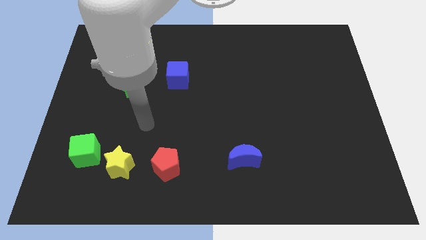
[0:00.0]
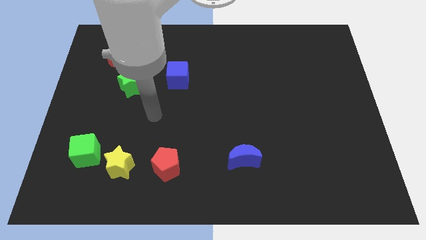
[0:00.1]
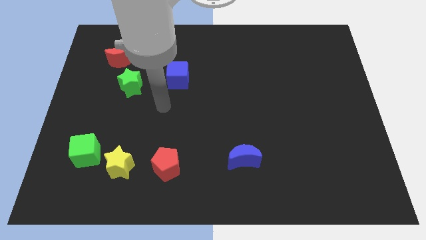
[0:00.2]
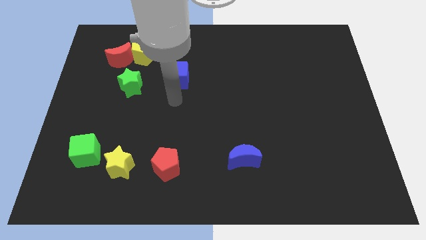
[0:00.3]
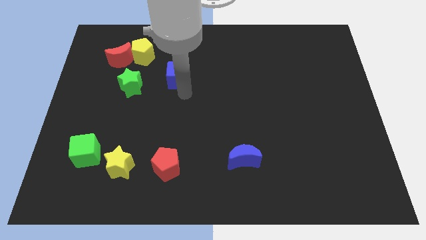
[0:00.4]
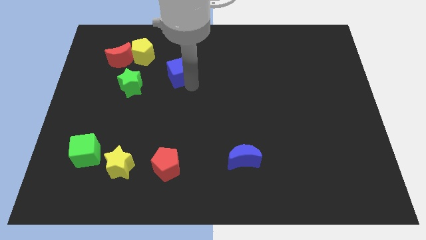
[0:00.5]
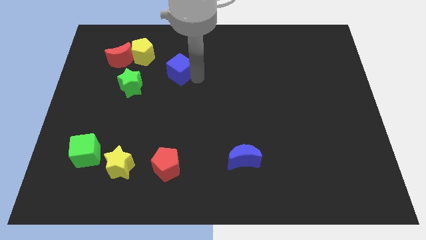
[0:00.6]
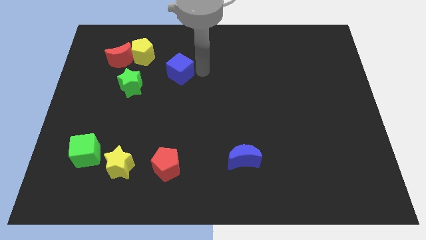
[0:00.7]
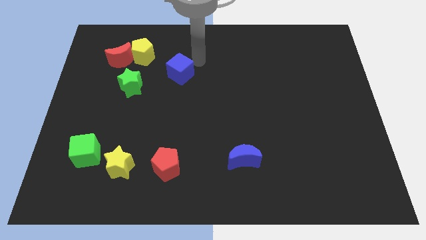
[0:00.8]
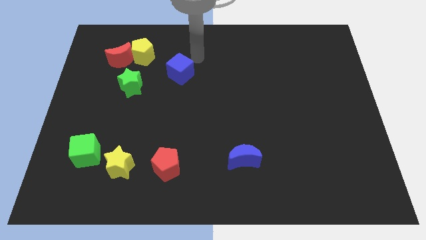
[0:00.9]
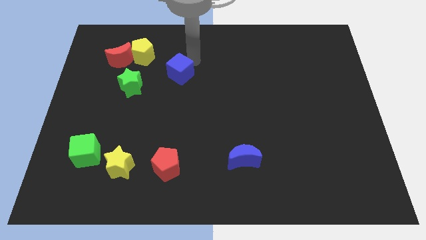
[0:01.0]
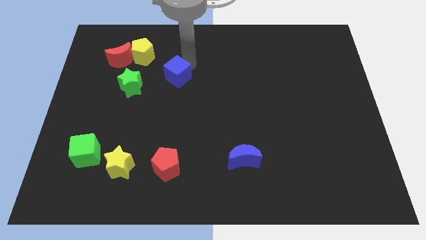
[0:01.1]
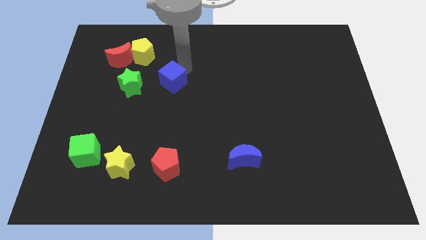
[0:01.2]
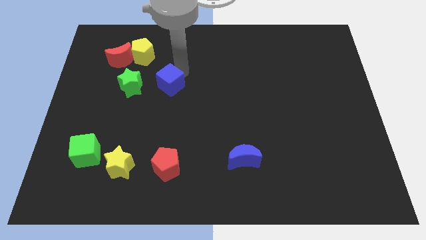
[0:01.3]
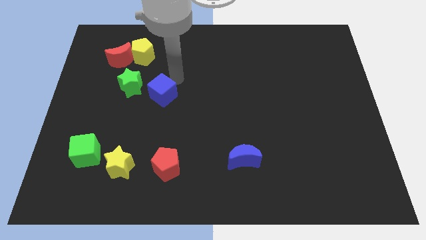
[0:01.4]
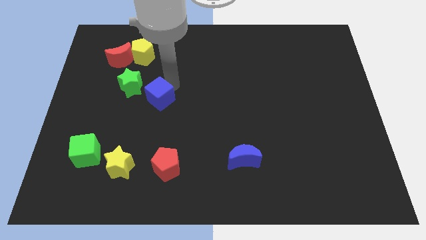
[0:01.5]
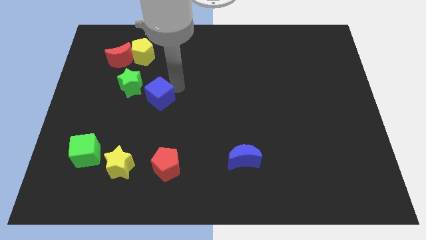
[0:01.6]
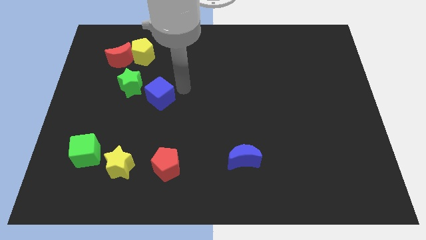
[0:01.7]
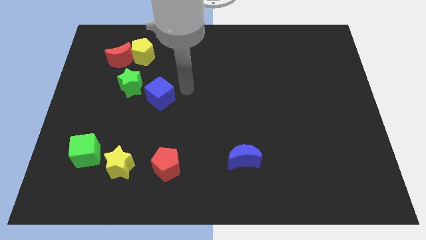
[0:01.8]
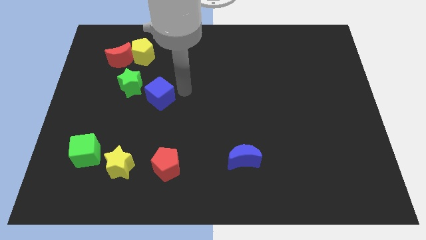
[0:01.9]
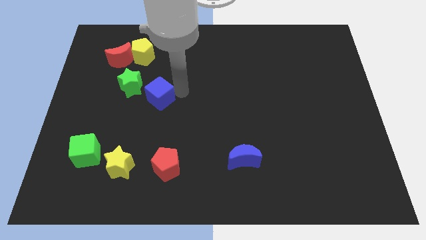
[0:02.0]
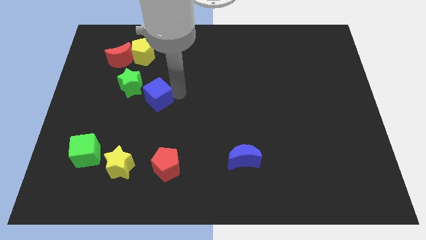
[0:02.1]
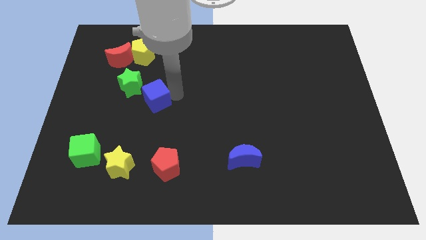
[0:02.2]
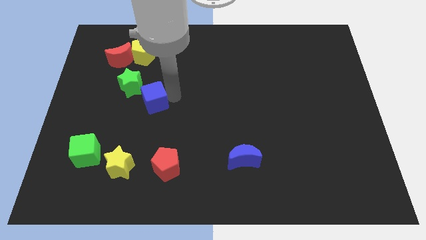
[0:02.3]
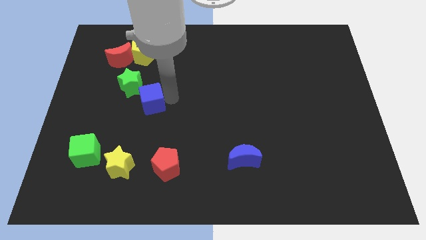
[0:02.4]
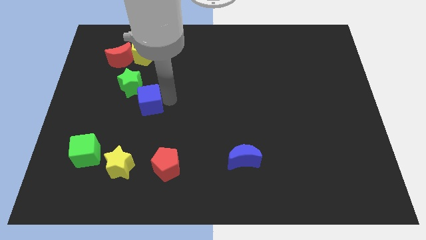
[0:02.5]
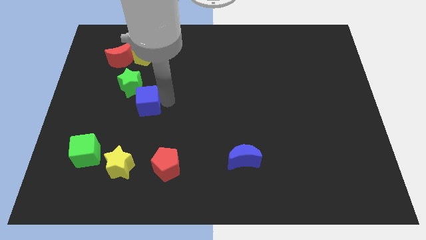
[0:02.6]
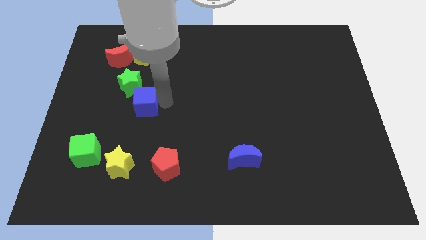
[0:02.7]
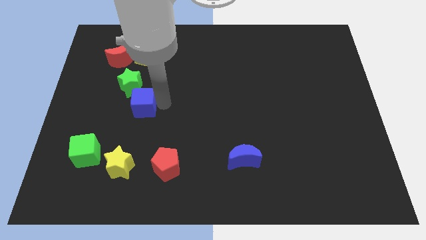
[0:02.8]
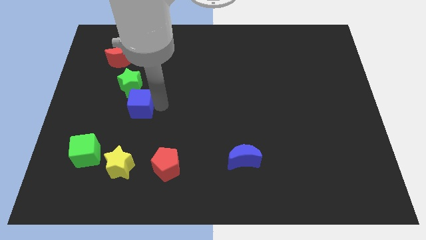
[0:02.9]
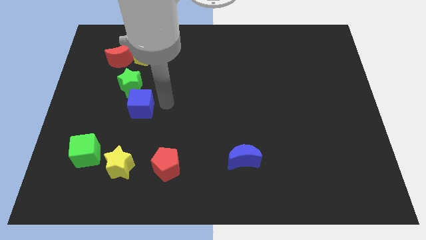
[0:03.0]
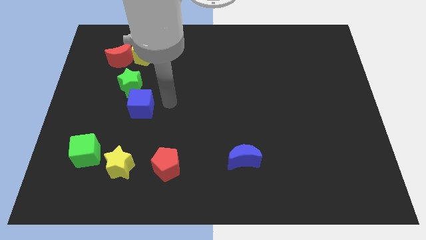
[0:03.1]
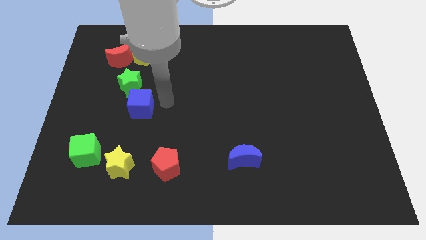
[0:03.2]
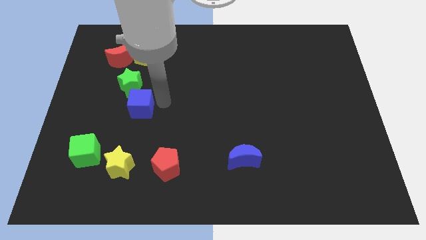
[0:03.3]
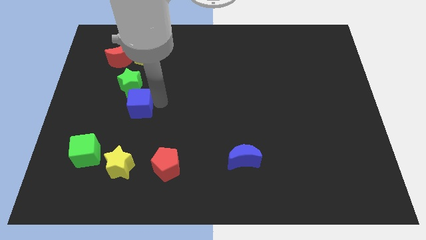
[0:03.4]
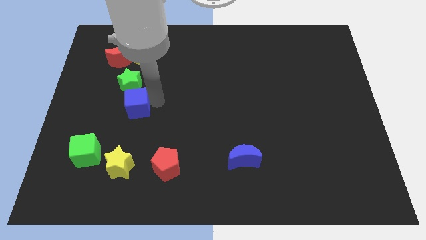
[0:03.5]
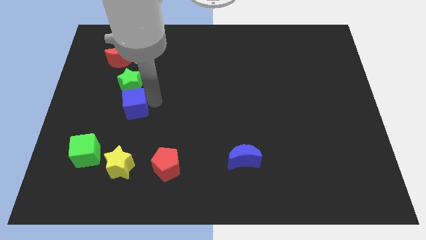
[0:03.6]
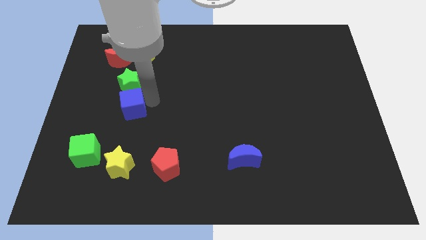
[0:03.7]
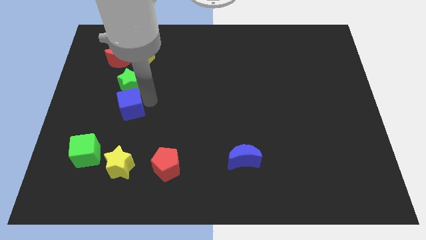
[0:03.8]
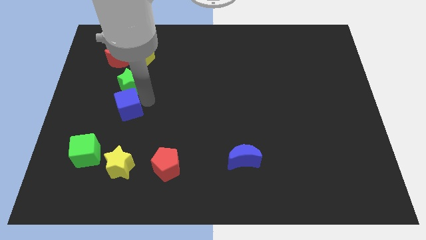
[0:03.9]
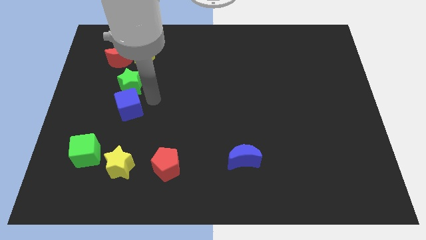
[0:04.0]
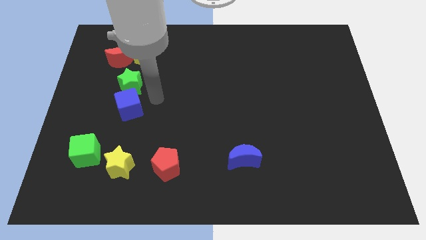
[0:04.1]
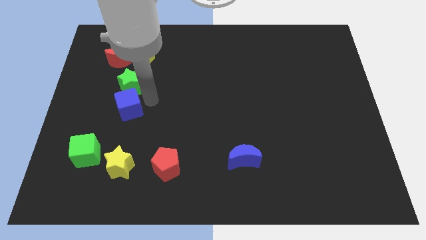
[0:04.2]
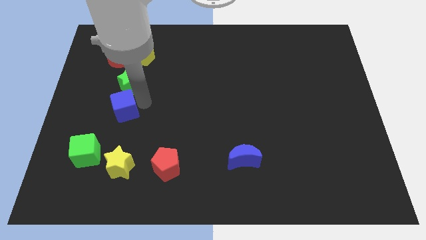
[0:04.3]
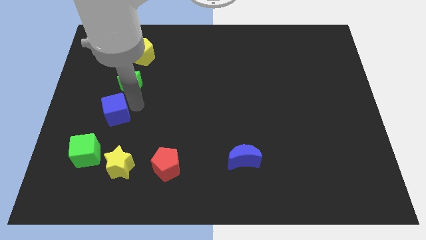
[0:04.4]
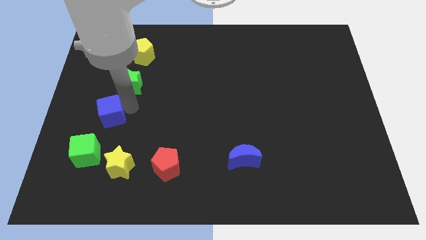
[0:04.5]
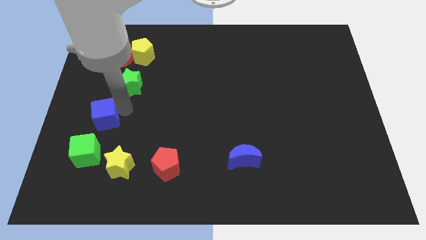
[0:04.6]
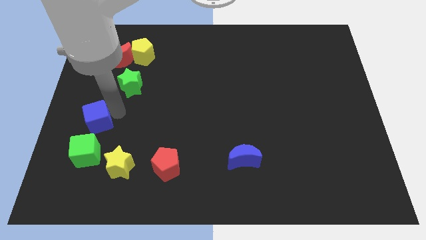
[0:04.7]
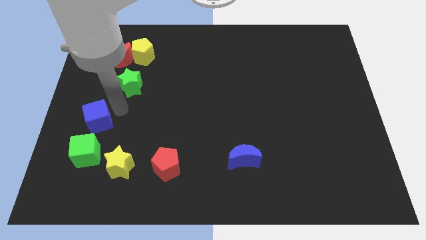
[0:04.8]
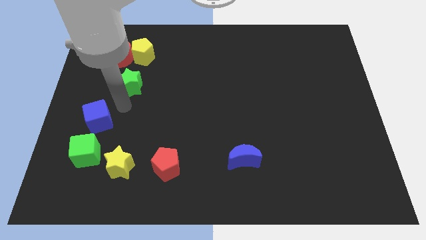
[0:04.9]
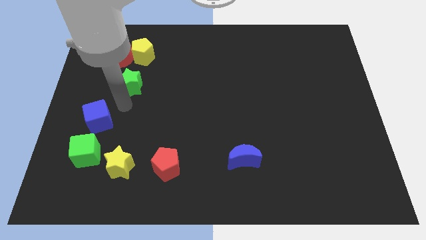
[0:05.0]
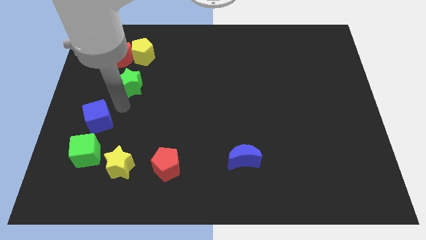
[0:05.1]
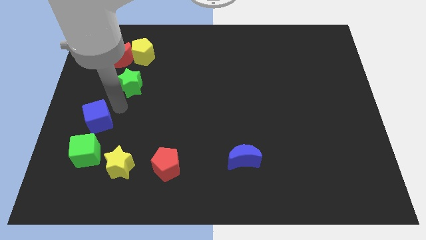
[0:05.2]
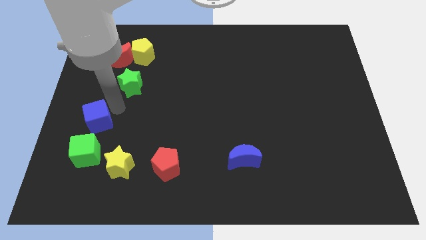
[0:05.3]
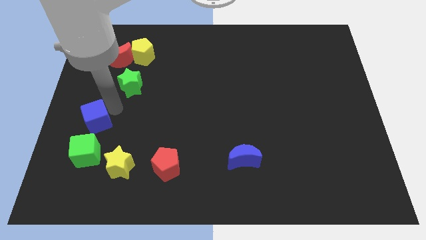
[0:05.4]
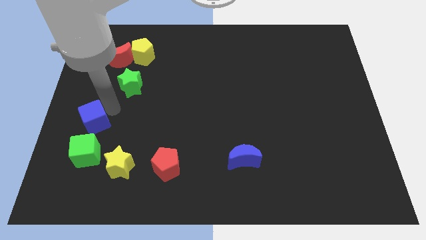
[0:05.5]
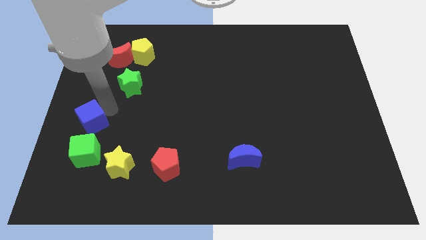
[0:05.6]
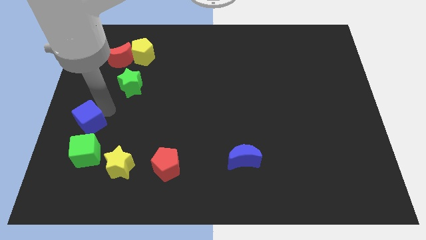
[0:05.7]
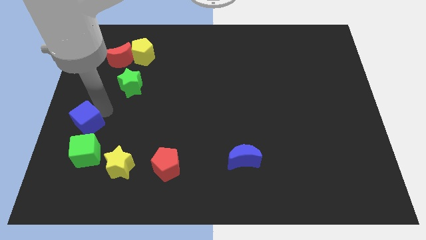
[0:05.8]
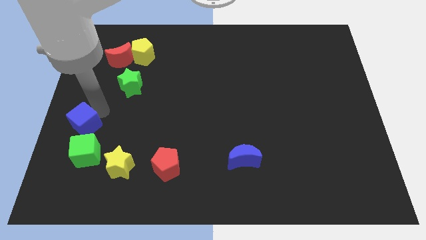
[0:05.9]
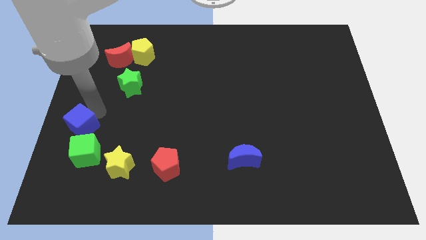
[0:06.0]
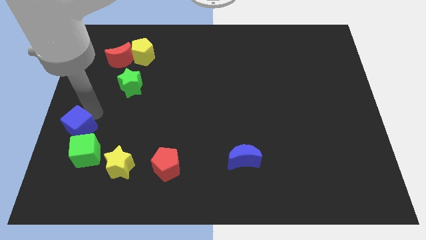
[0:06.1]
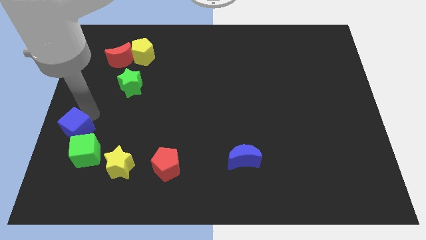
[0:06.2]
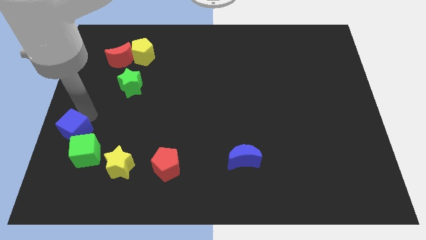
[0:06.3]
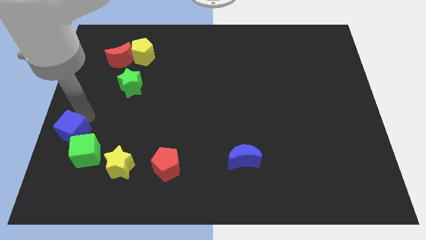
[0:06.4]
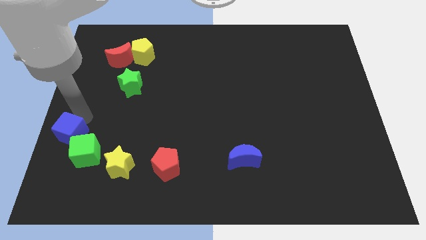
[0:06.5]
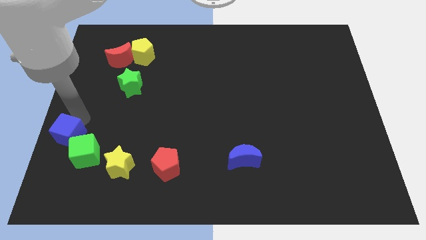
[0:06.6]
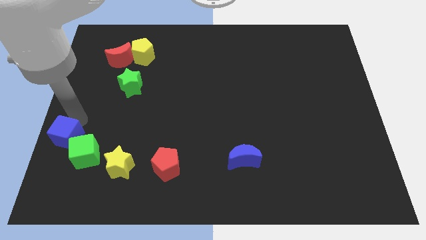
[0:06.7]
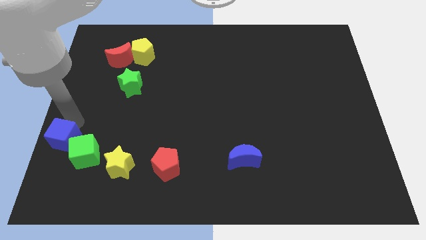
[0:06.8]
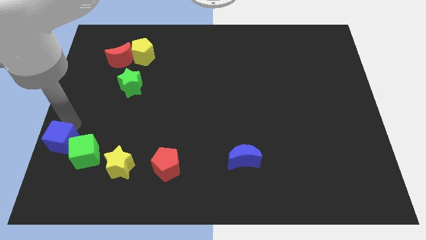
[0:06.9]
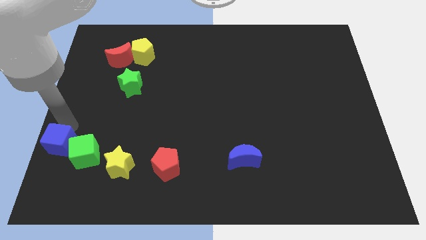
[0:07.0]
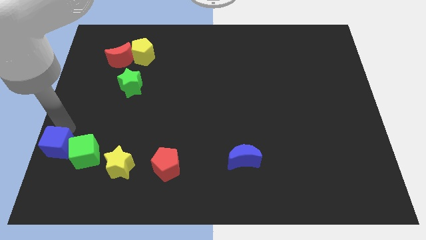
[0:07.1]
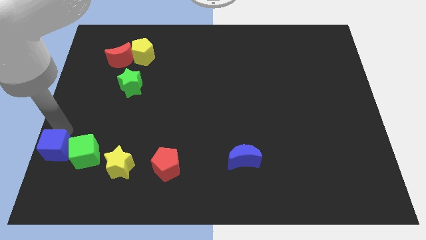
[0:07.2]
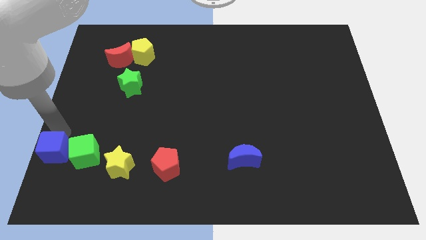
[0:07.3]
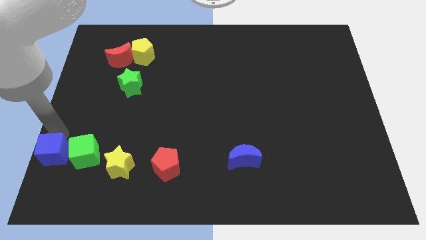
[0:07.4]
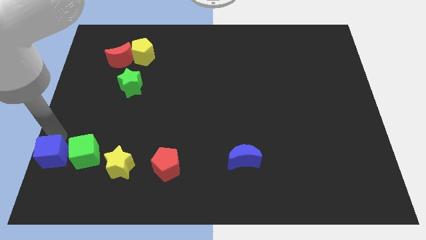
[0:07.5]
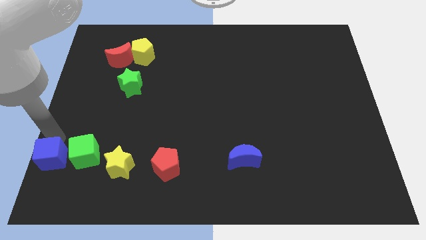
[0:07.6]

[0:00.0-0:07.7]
slide the blue cube to the lower left corner
